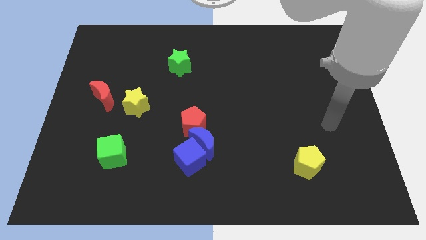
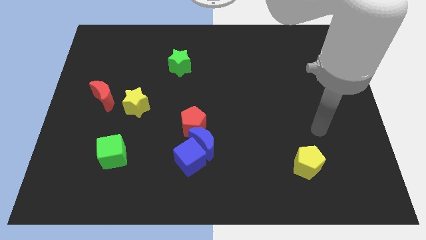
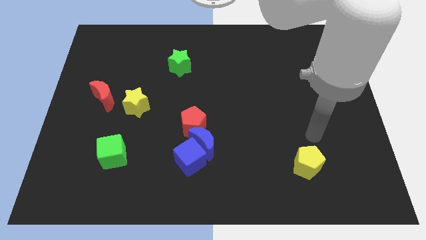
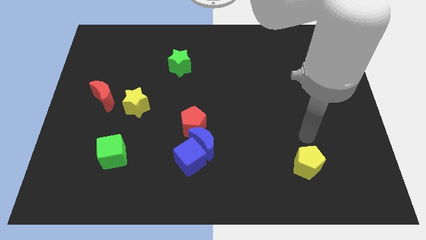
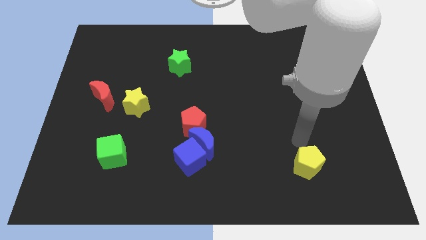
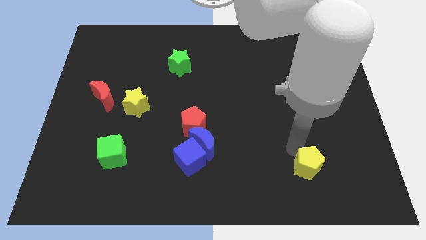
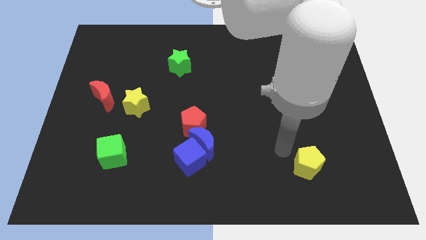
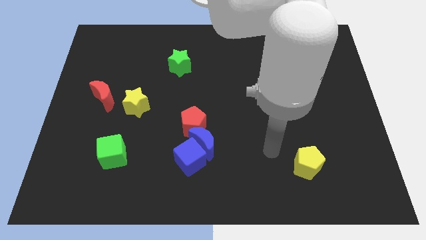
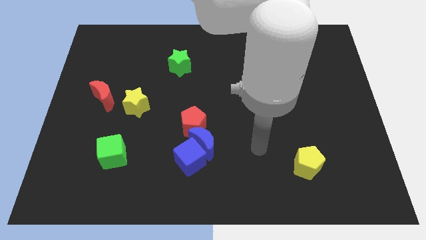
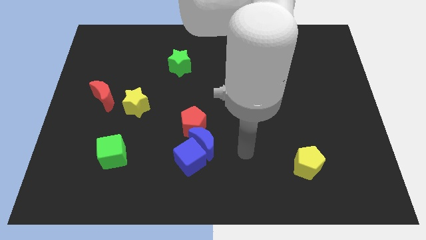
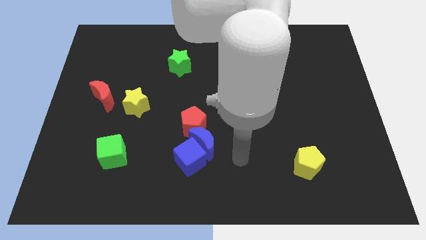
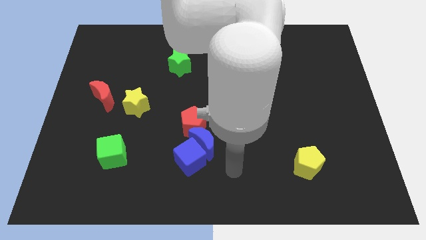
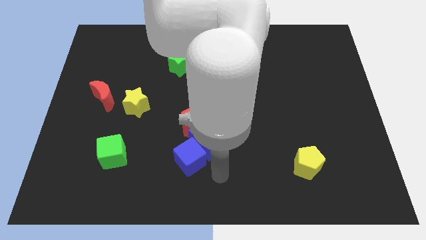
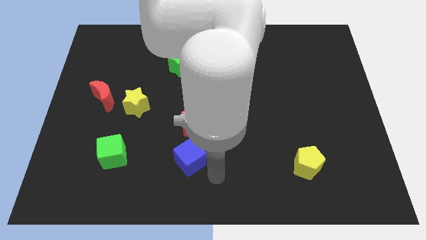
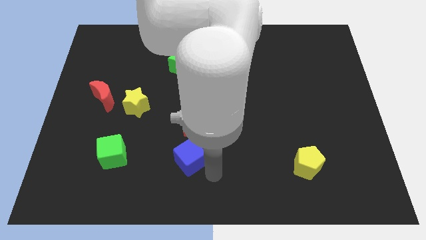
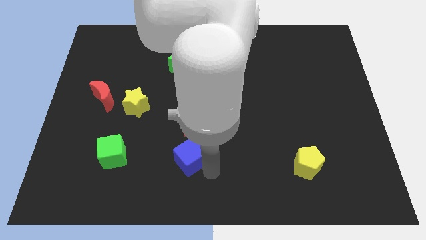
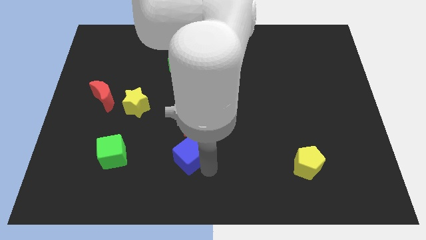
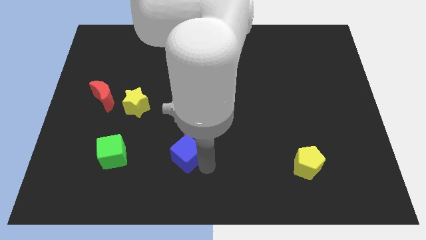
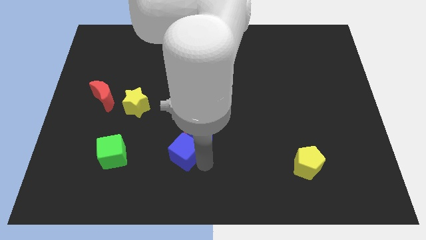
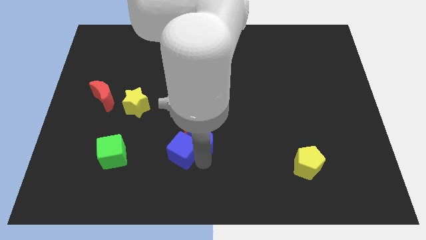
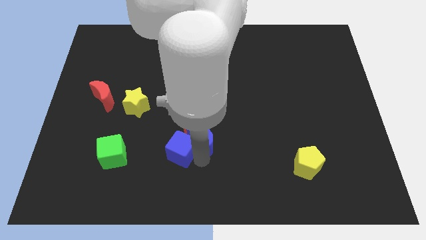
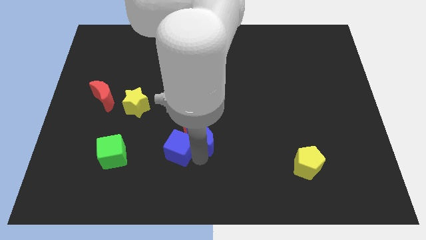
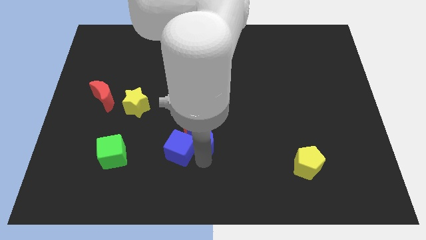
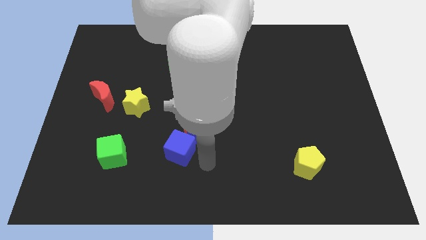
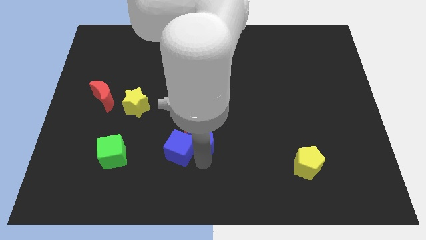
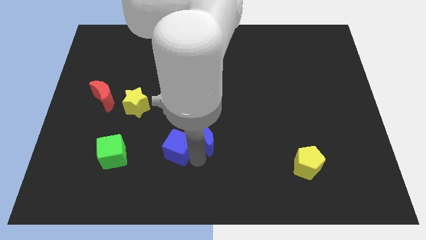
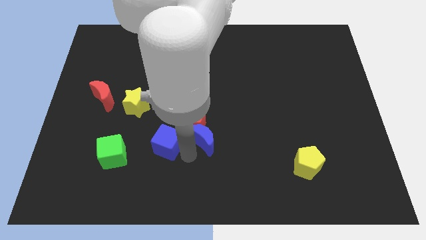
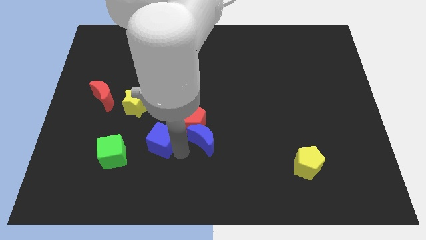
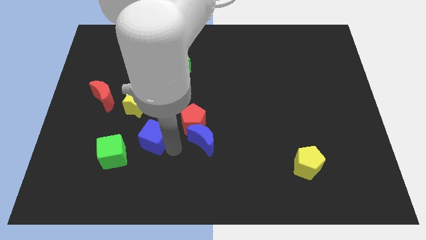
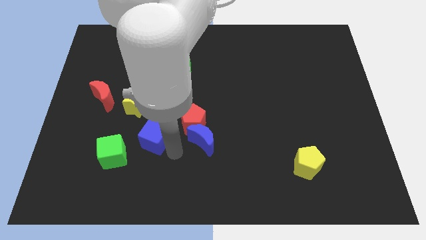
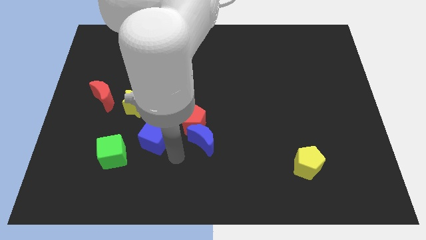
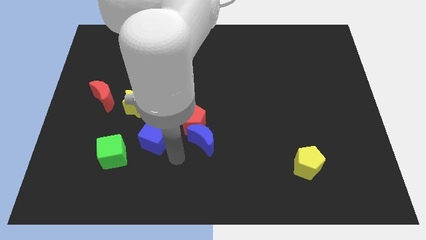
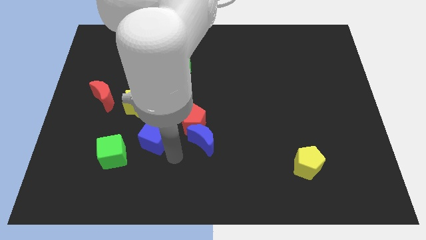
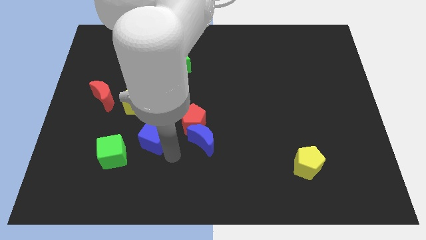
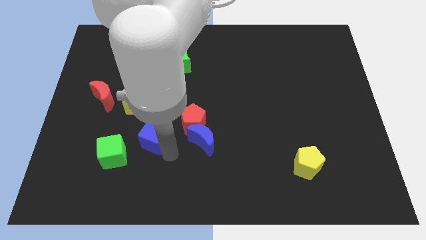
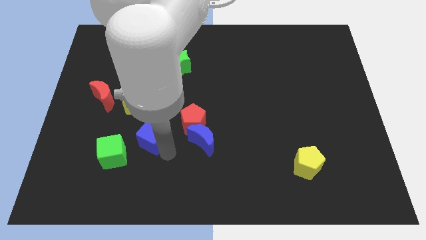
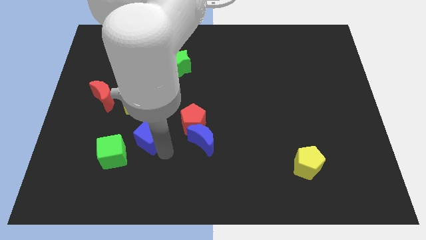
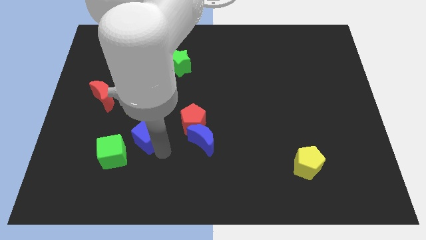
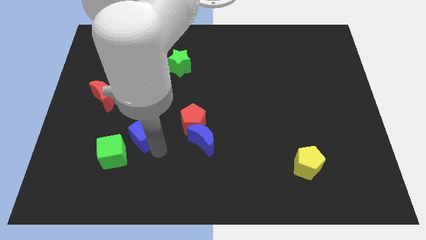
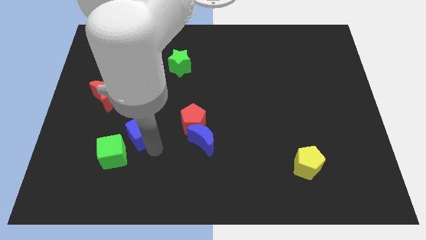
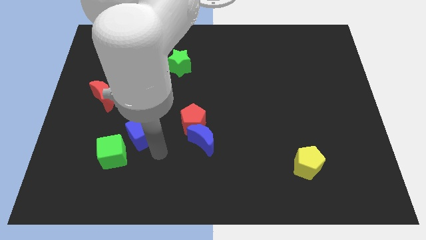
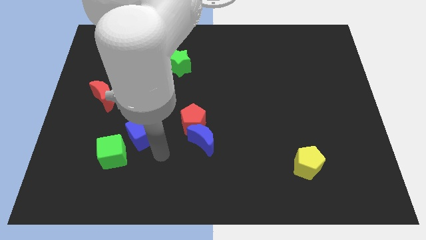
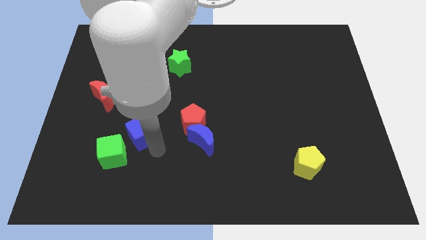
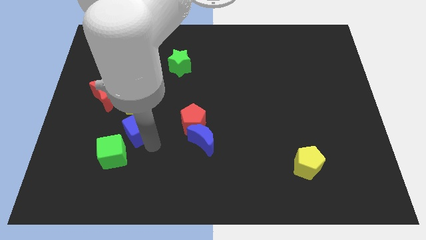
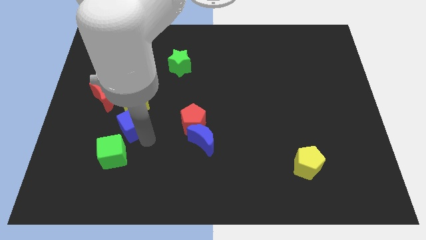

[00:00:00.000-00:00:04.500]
move the blue cube diagonally down and to the right of the red moon

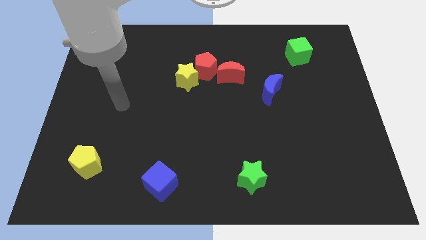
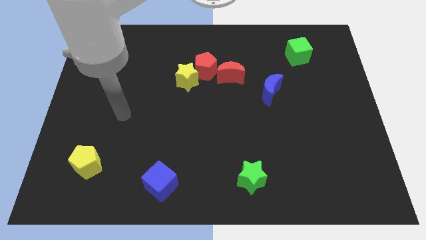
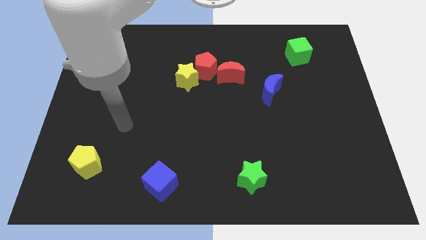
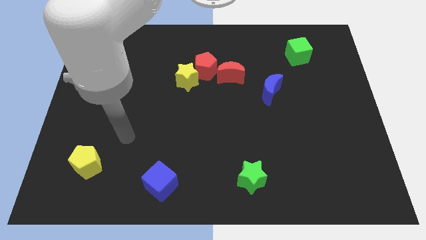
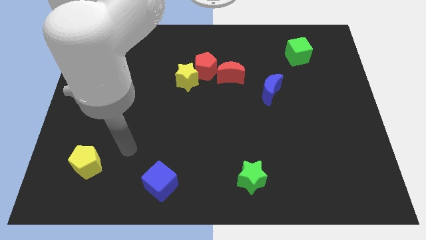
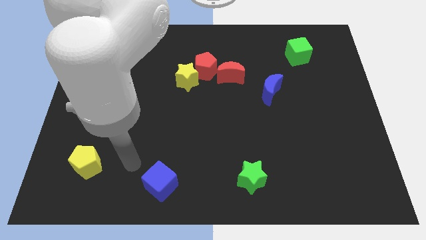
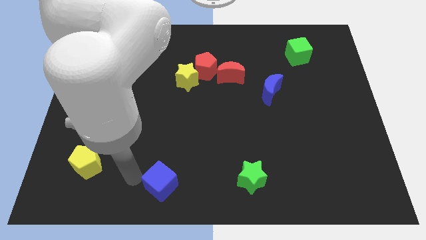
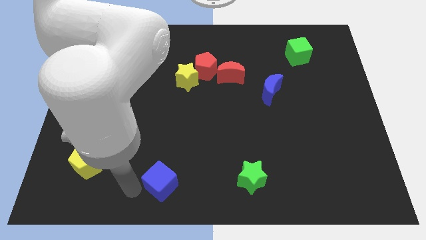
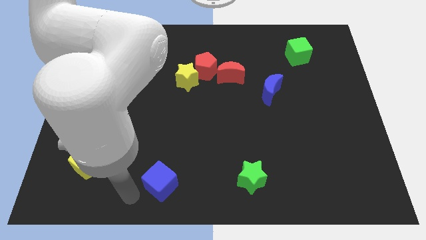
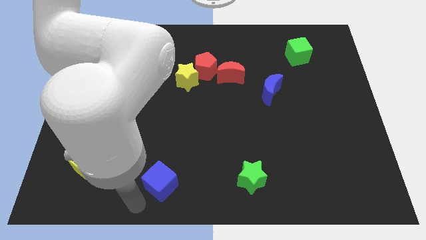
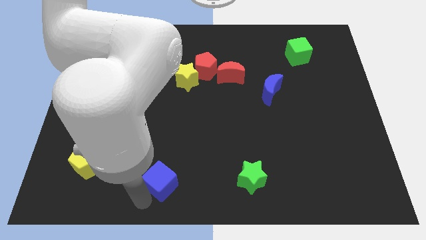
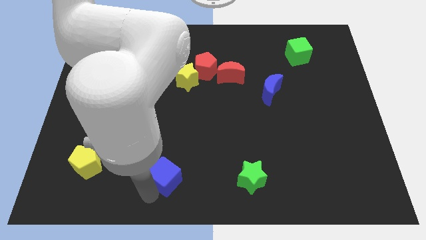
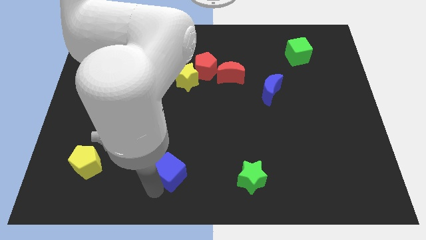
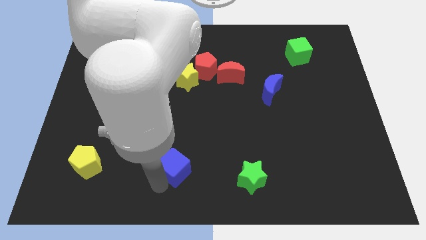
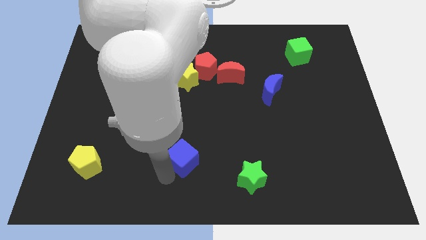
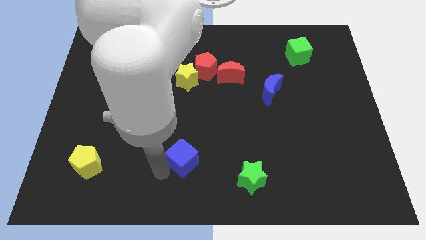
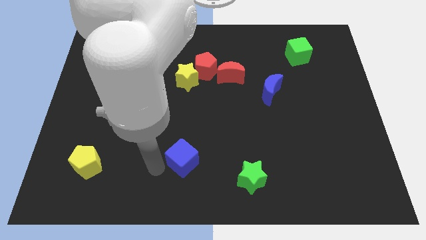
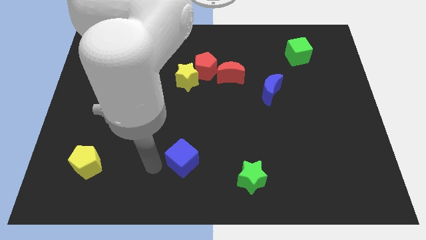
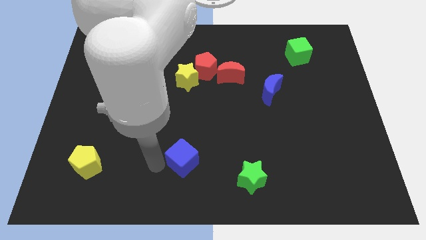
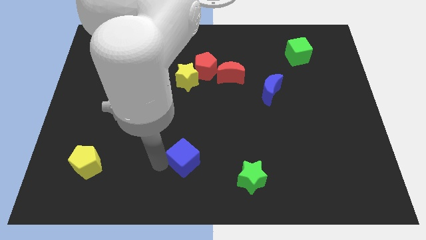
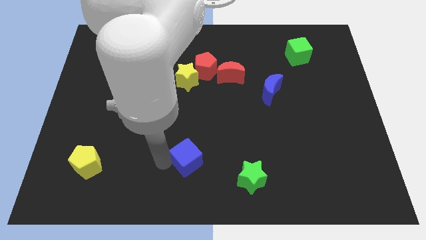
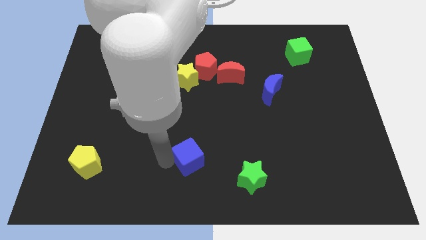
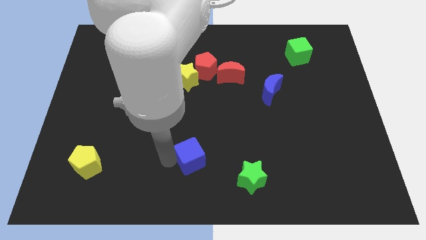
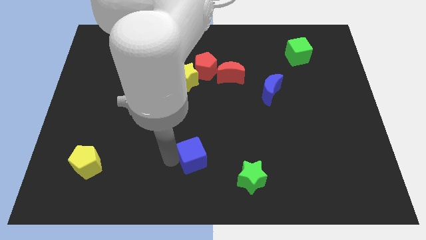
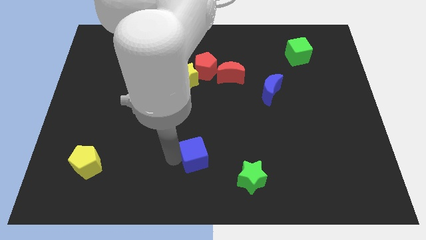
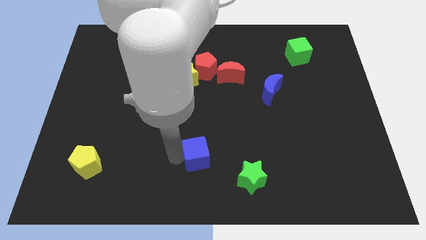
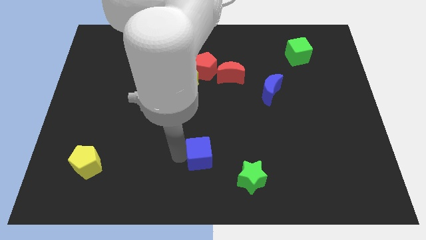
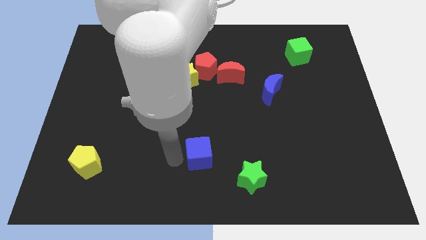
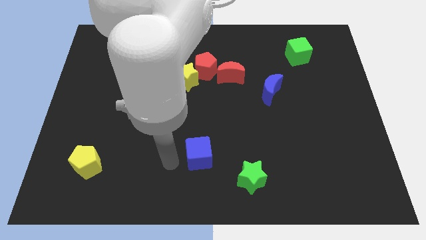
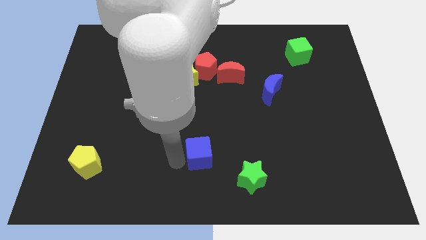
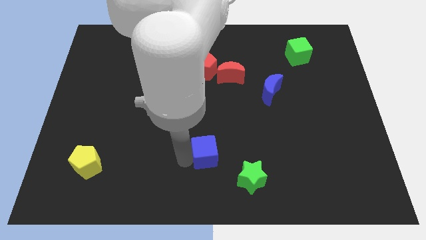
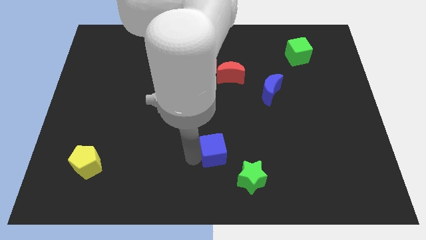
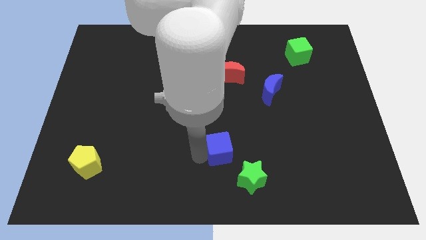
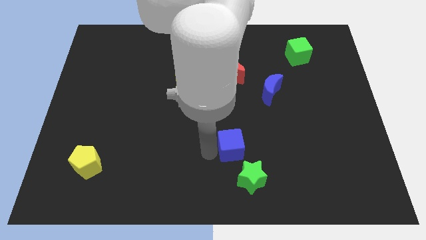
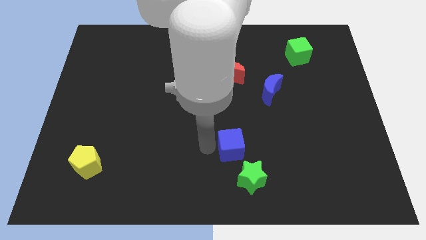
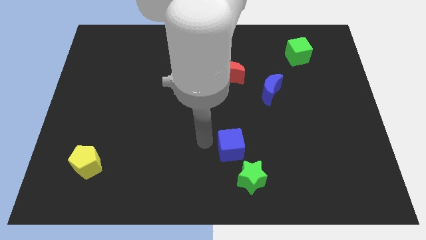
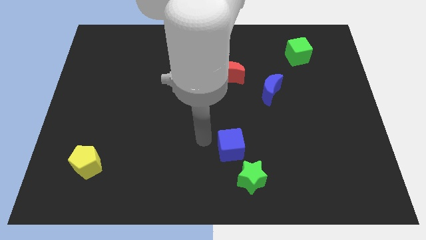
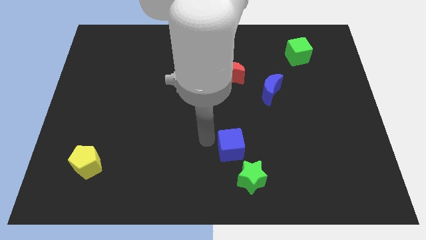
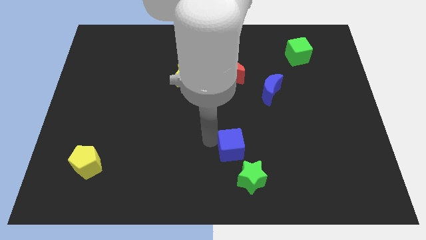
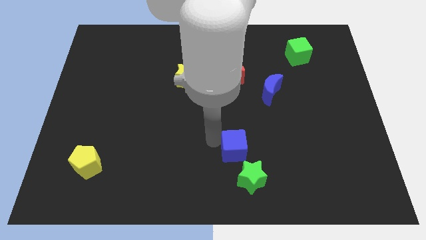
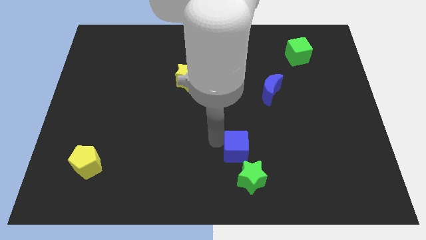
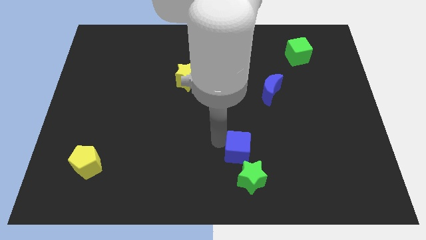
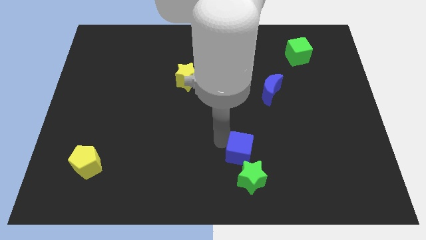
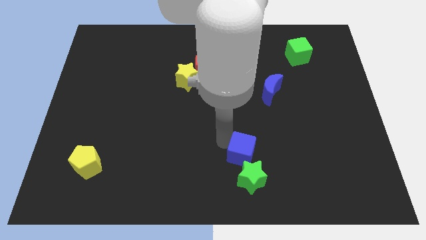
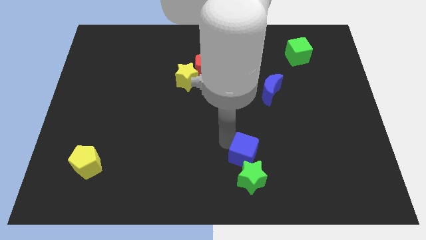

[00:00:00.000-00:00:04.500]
put the blue cube to the top right side of the green star
